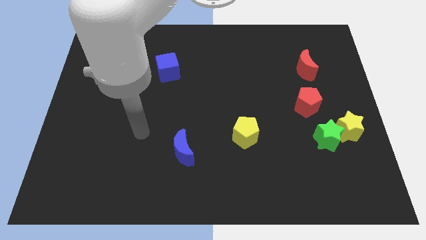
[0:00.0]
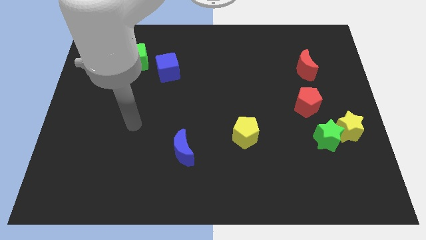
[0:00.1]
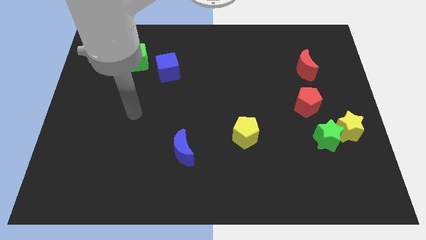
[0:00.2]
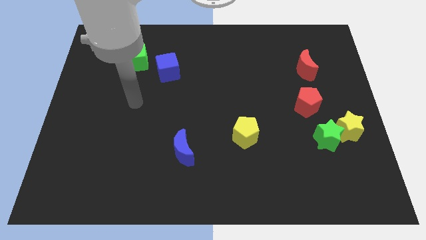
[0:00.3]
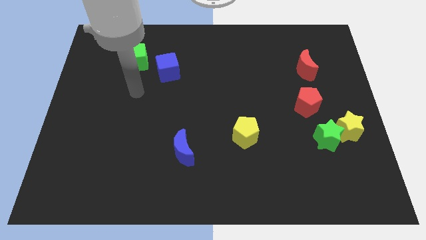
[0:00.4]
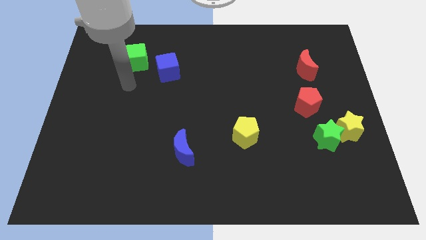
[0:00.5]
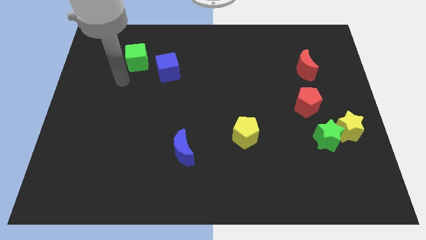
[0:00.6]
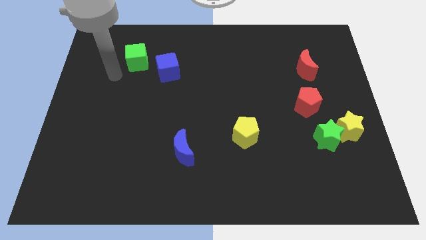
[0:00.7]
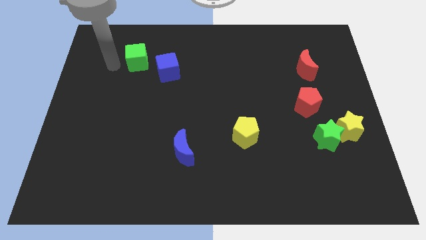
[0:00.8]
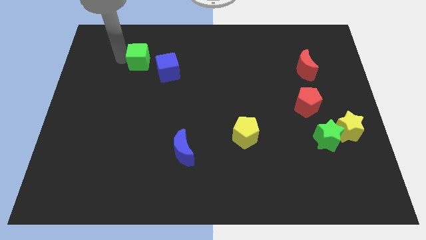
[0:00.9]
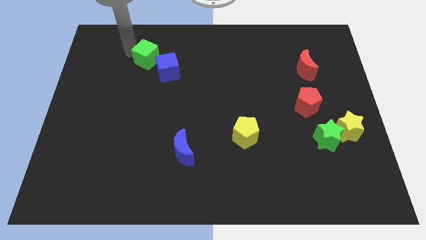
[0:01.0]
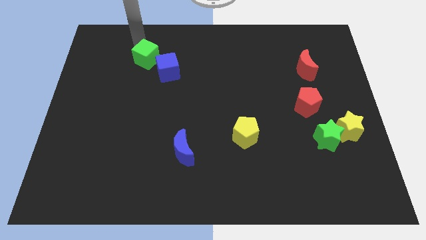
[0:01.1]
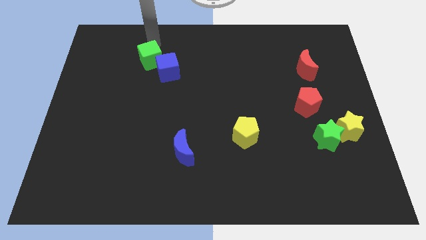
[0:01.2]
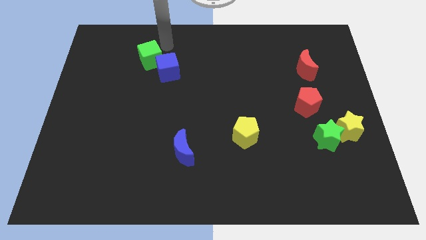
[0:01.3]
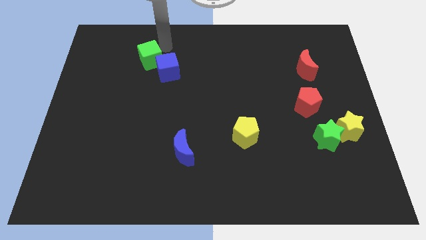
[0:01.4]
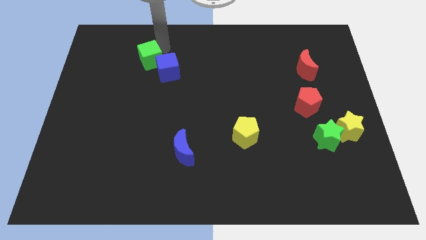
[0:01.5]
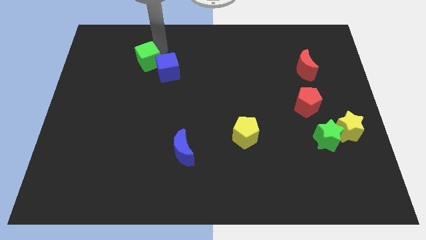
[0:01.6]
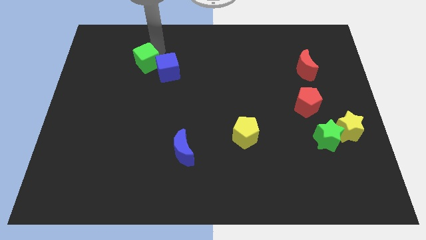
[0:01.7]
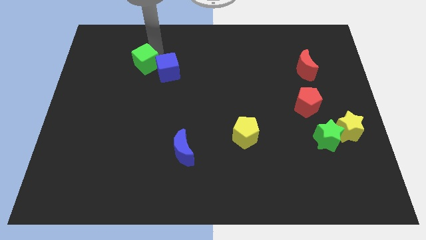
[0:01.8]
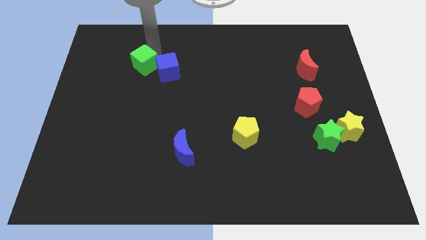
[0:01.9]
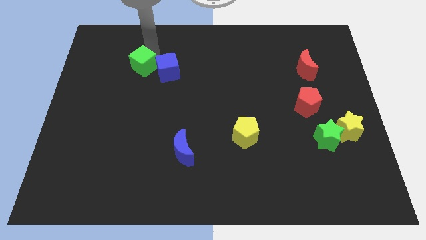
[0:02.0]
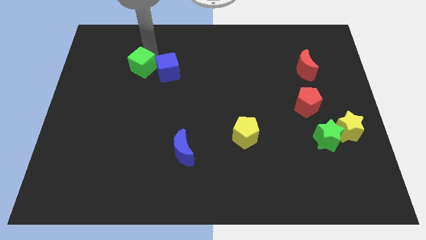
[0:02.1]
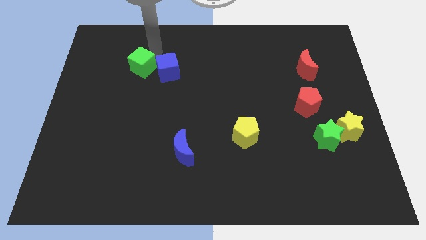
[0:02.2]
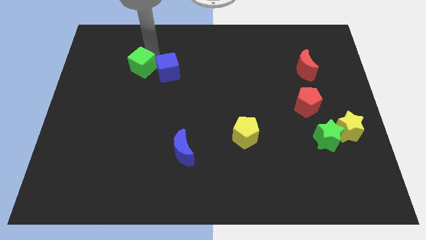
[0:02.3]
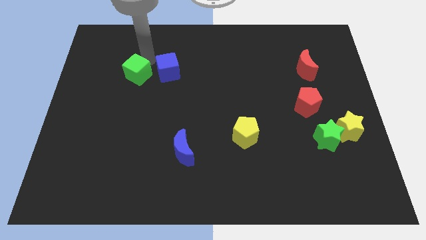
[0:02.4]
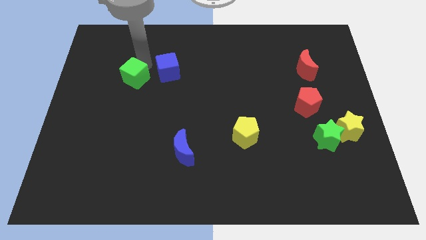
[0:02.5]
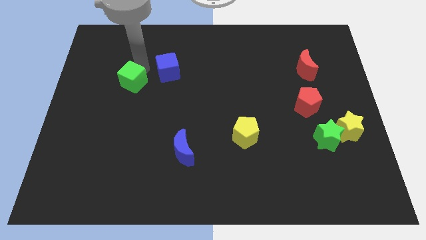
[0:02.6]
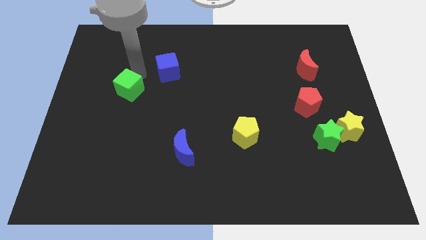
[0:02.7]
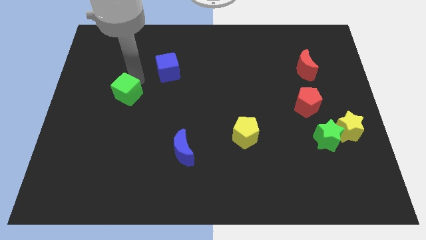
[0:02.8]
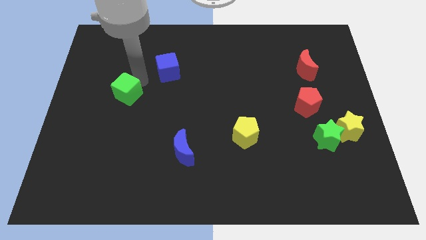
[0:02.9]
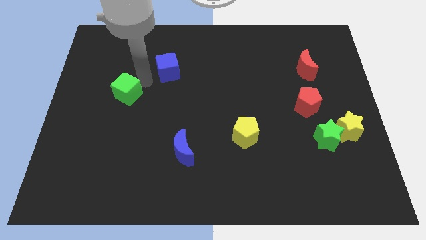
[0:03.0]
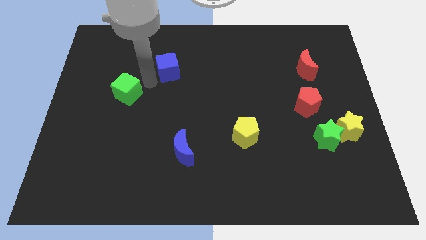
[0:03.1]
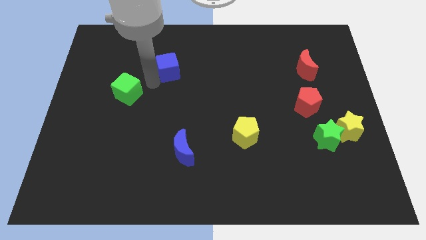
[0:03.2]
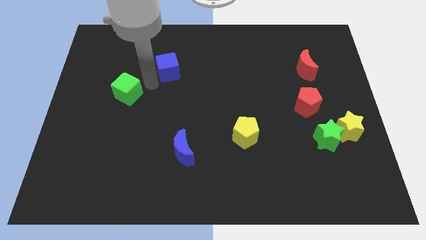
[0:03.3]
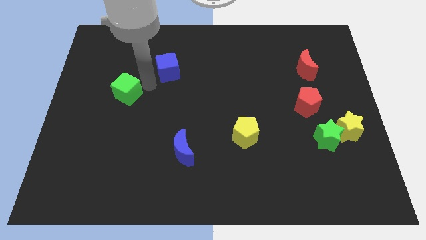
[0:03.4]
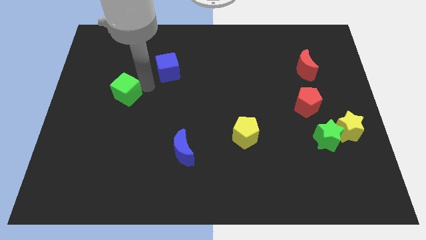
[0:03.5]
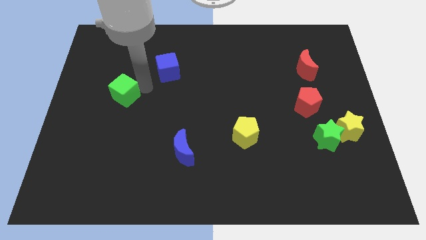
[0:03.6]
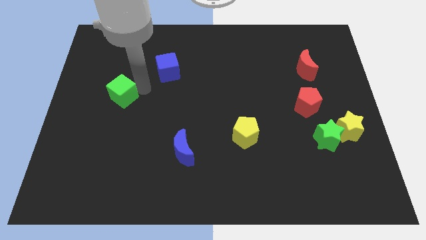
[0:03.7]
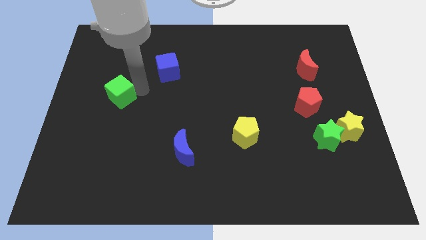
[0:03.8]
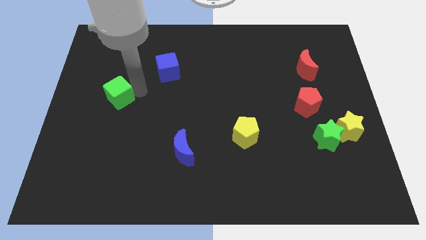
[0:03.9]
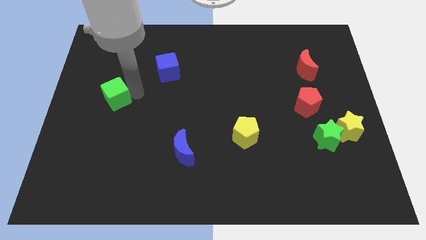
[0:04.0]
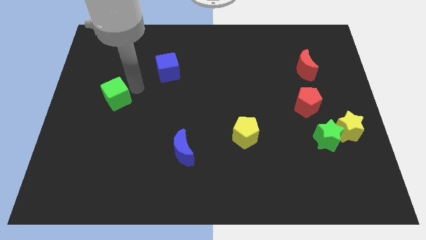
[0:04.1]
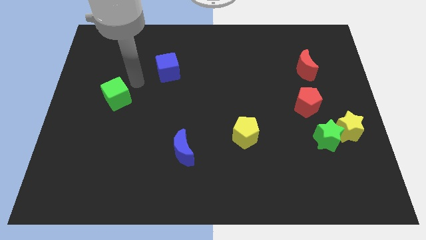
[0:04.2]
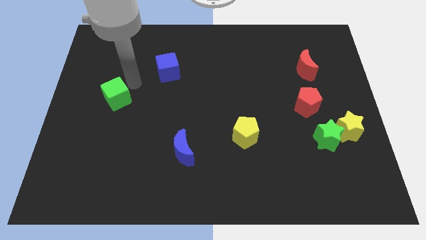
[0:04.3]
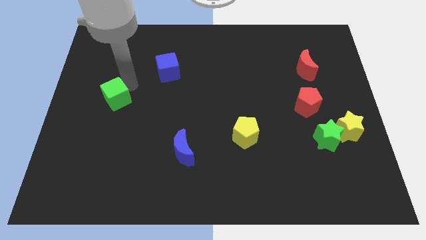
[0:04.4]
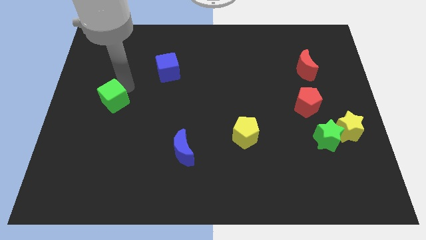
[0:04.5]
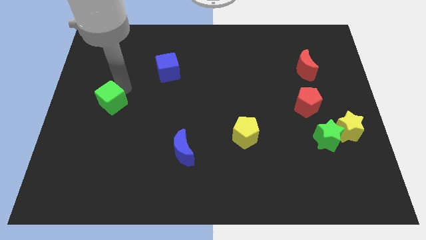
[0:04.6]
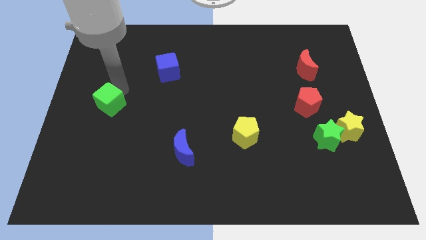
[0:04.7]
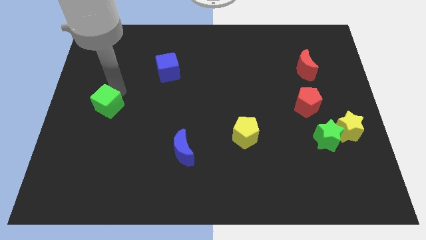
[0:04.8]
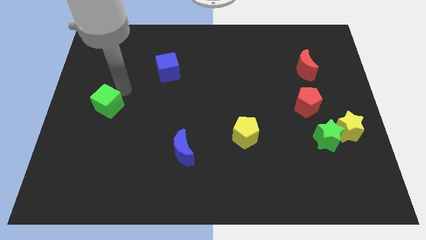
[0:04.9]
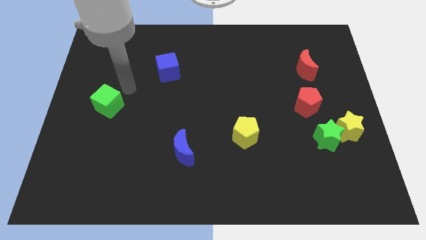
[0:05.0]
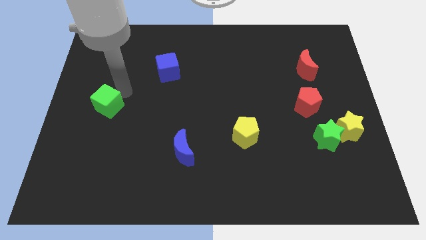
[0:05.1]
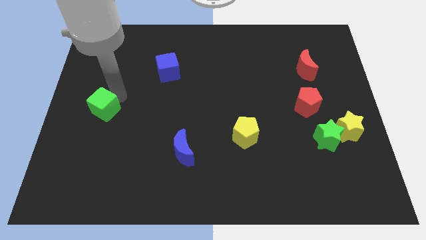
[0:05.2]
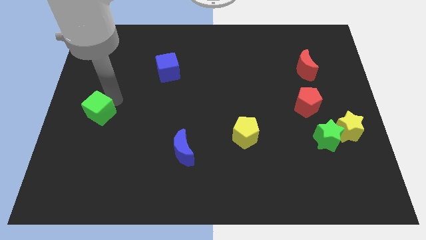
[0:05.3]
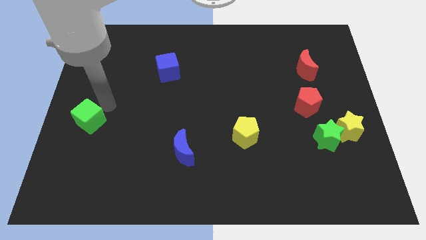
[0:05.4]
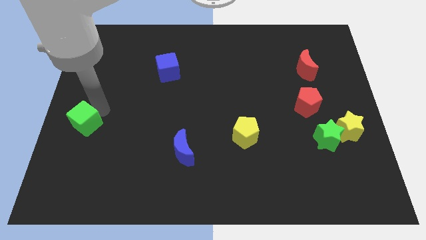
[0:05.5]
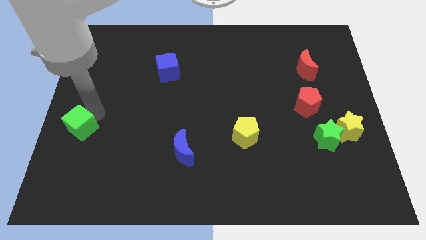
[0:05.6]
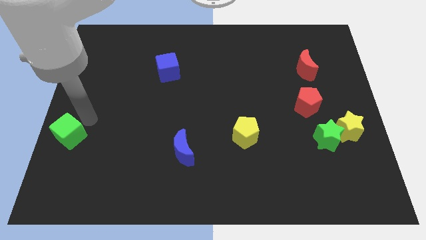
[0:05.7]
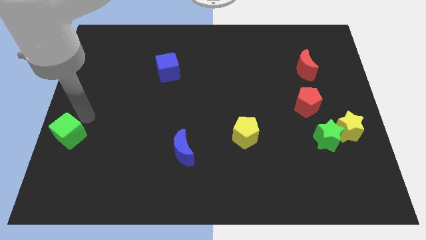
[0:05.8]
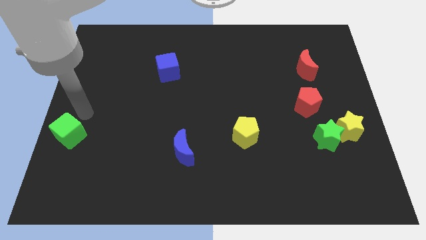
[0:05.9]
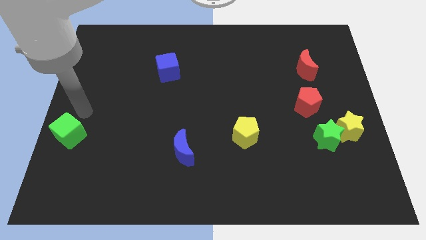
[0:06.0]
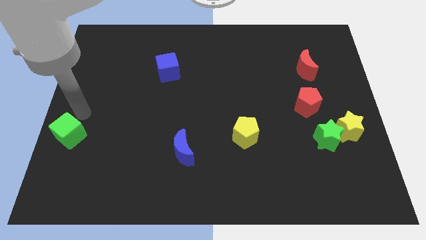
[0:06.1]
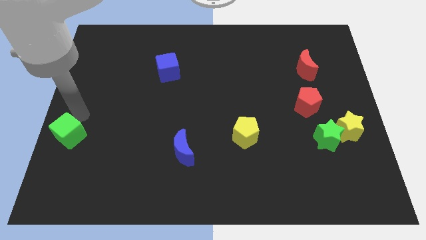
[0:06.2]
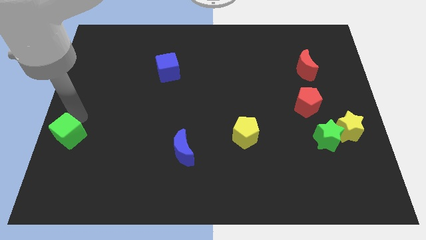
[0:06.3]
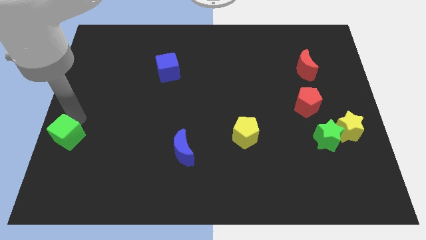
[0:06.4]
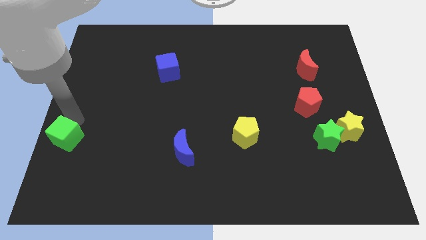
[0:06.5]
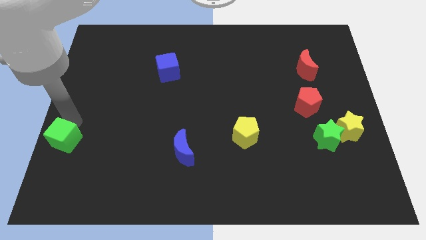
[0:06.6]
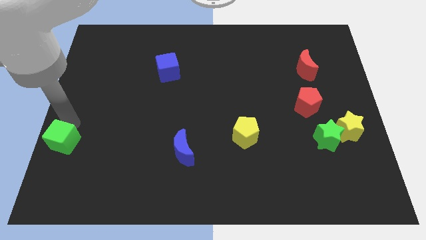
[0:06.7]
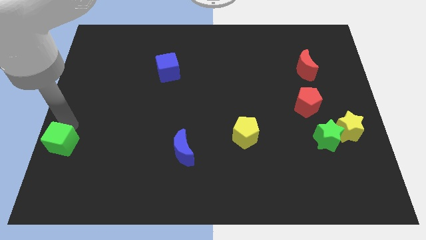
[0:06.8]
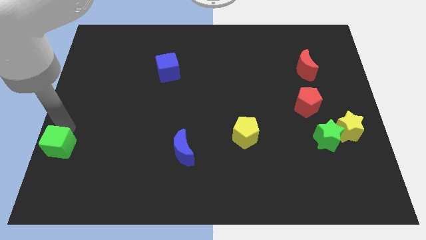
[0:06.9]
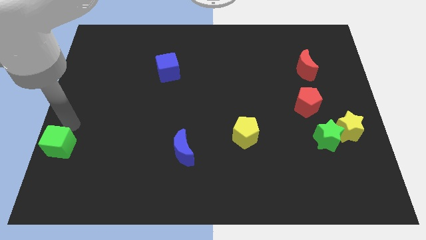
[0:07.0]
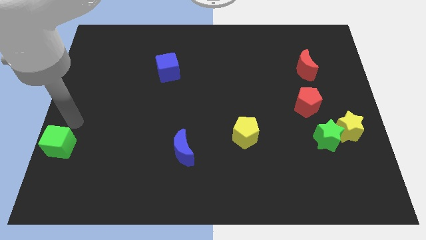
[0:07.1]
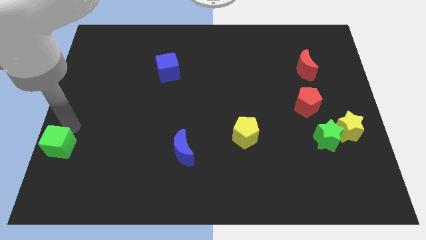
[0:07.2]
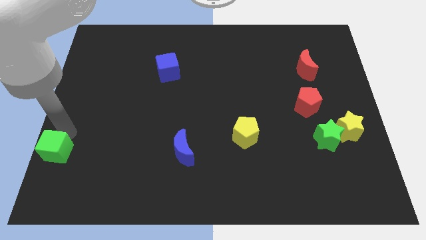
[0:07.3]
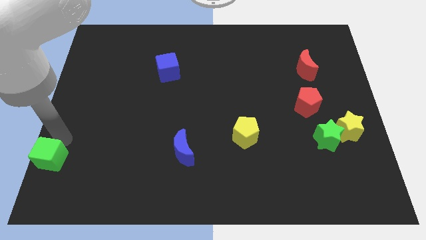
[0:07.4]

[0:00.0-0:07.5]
move the green cube to the bottom left corner
